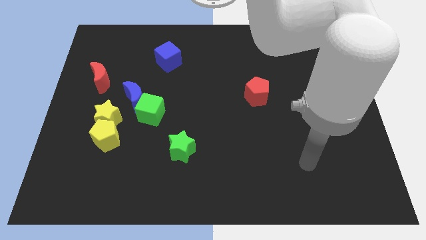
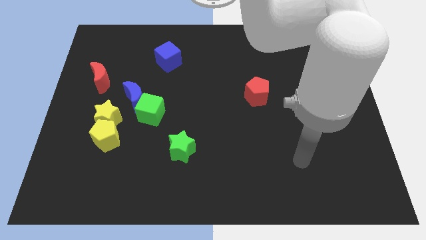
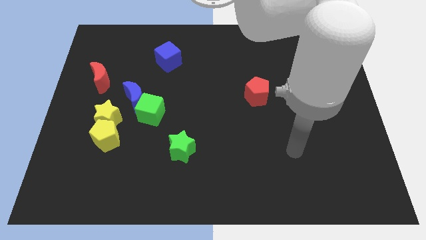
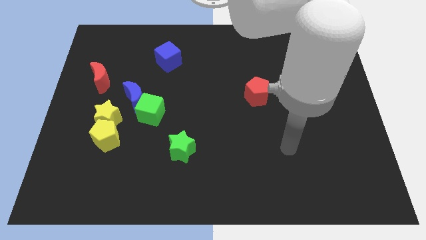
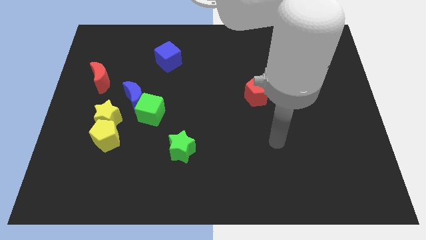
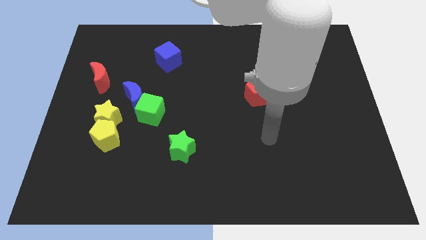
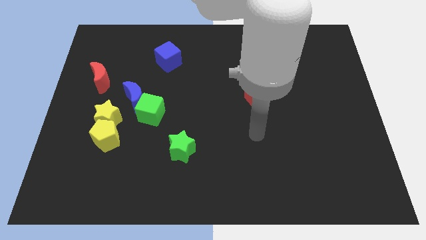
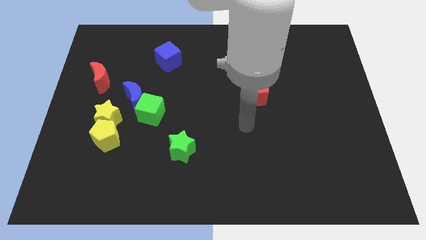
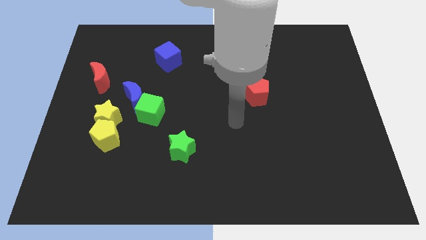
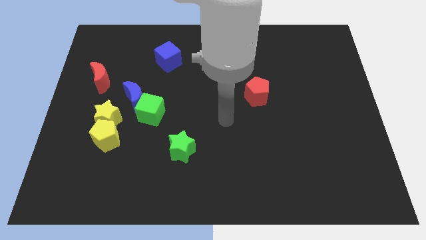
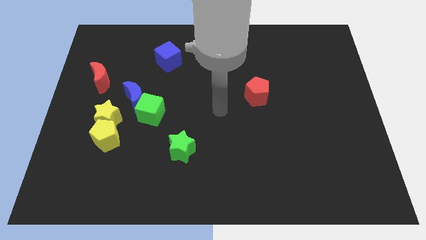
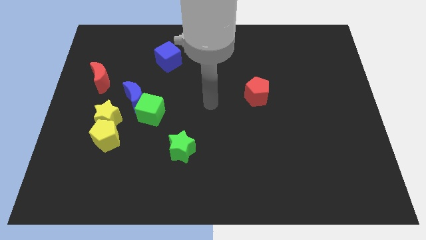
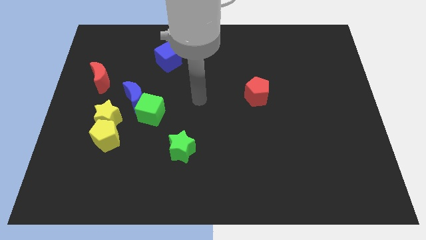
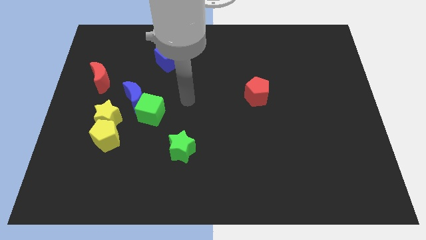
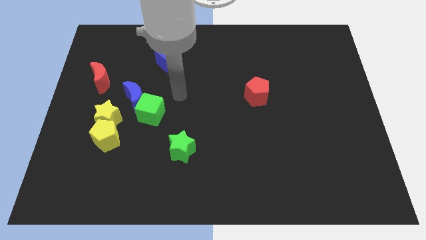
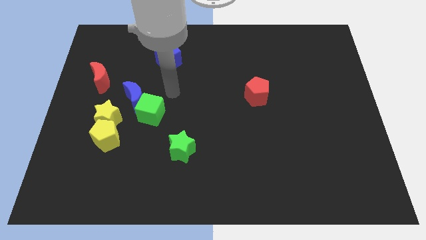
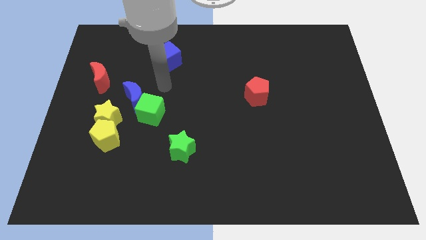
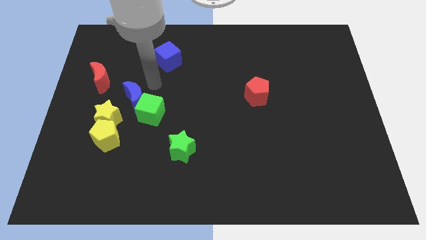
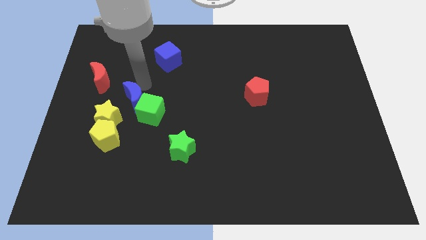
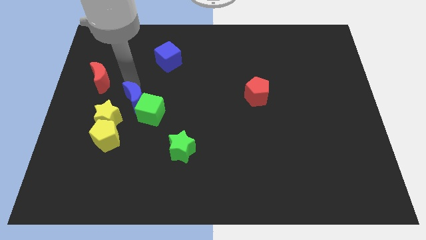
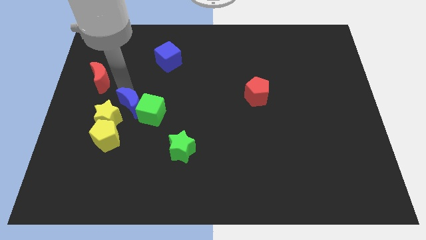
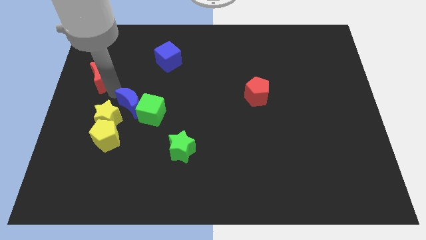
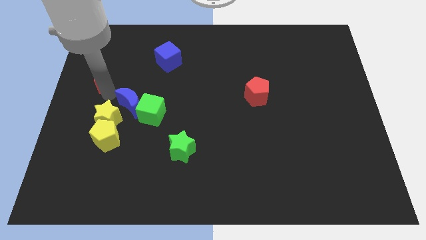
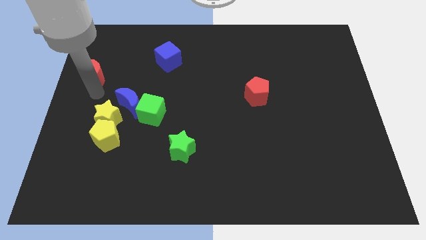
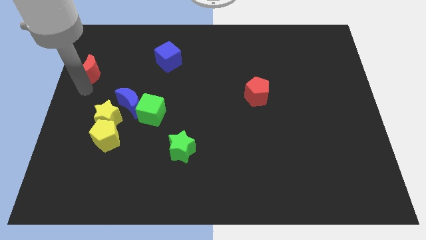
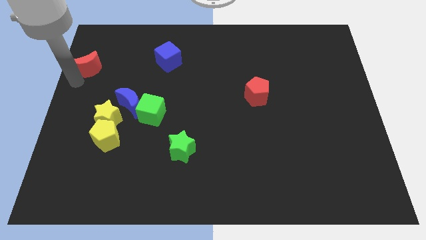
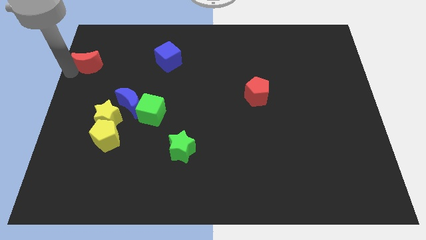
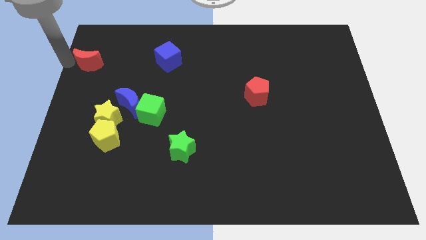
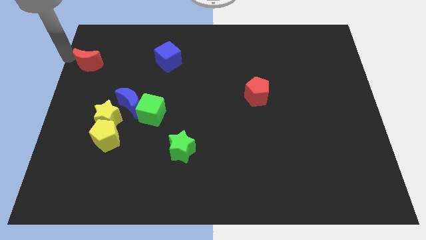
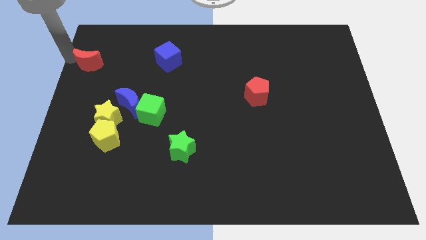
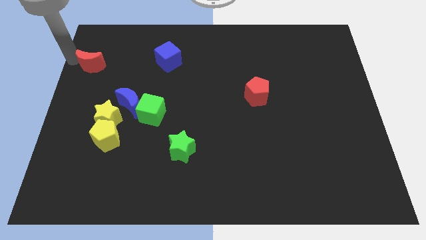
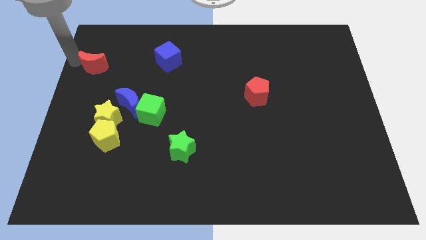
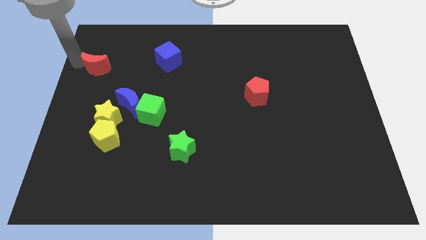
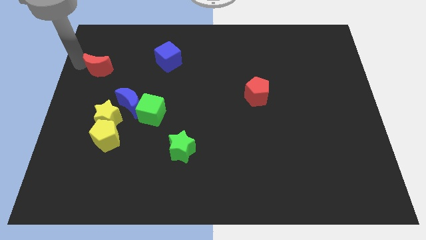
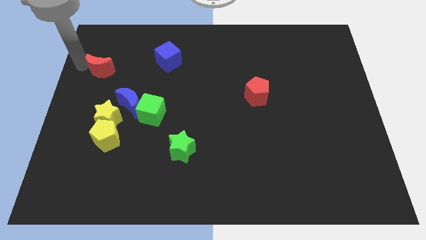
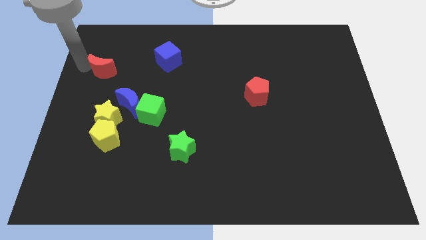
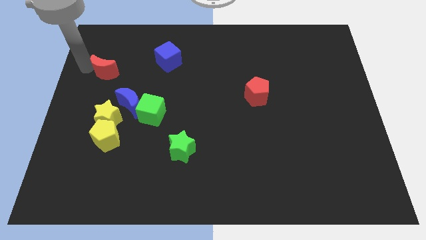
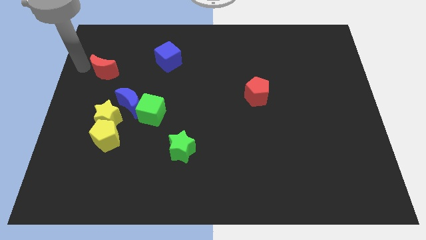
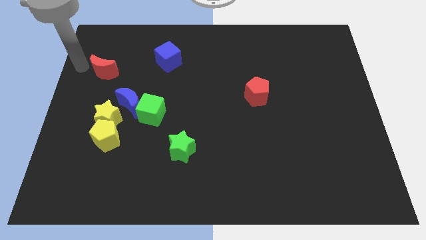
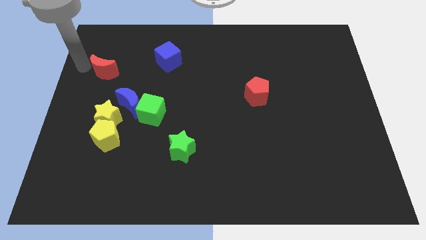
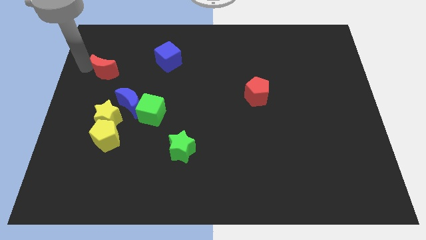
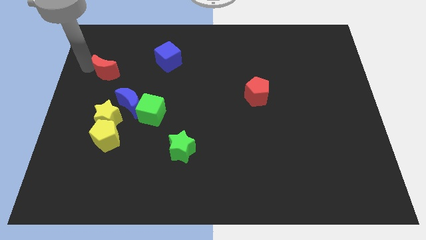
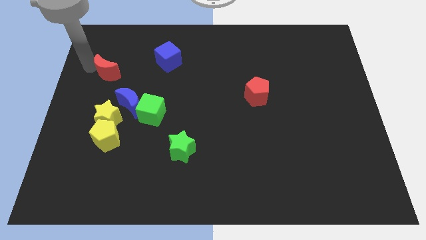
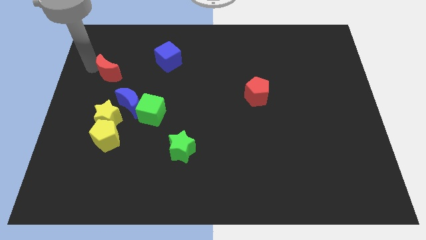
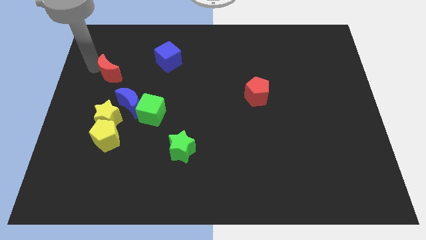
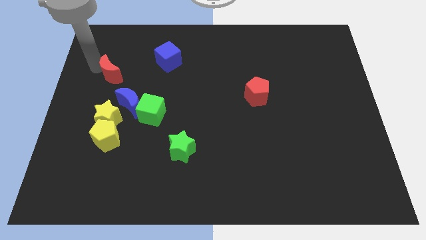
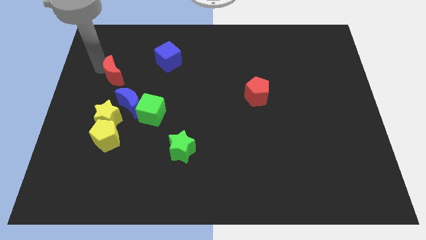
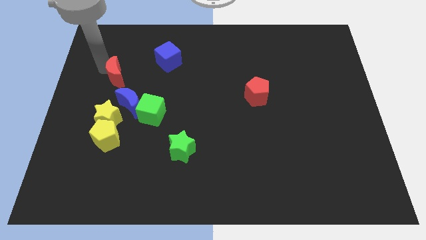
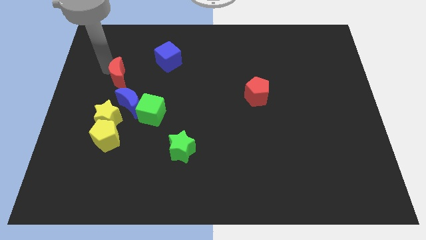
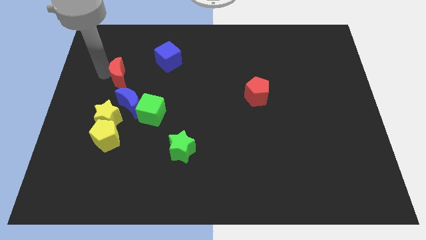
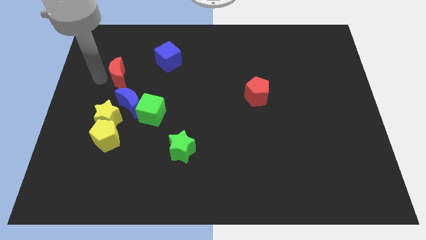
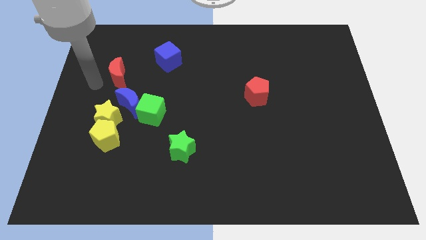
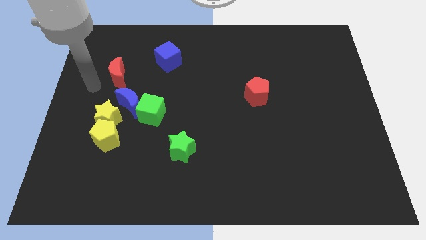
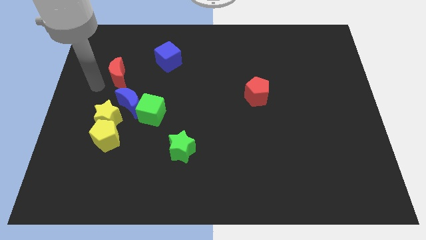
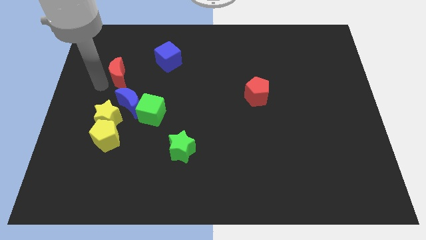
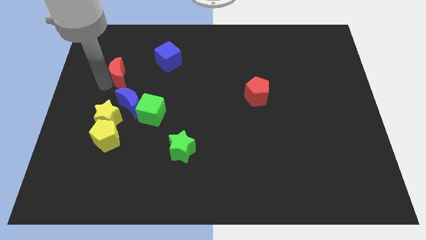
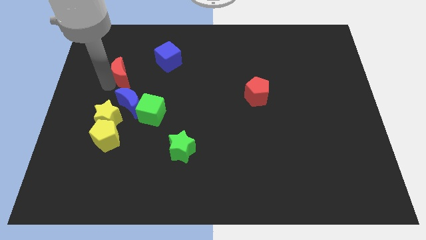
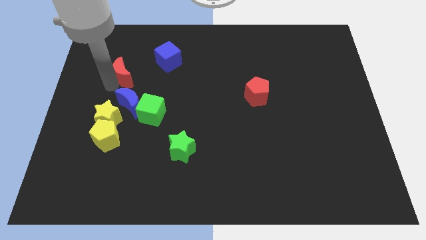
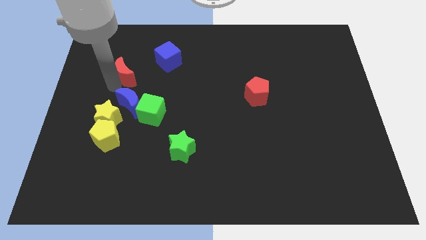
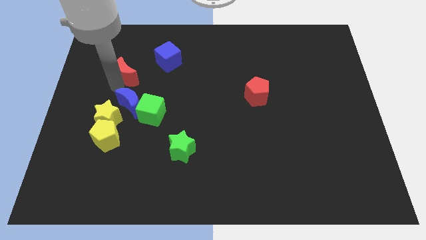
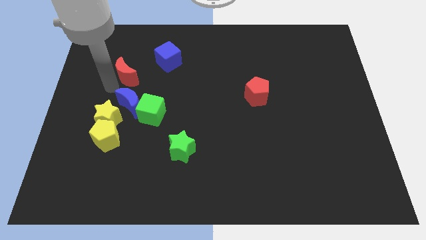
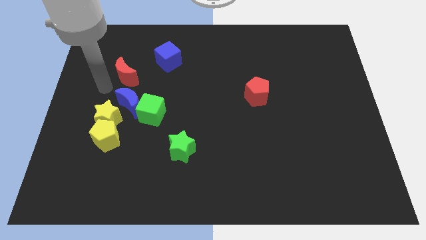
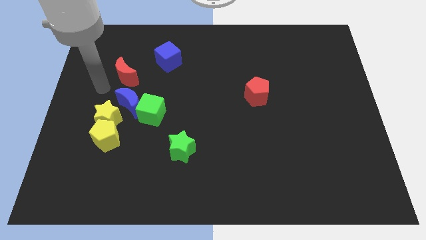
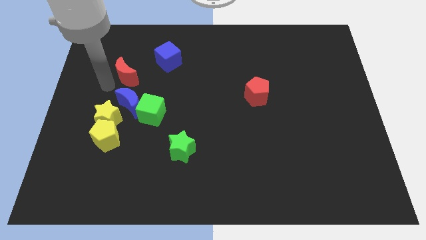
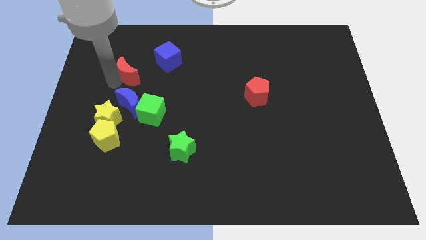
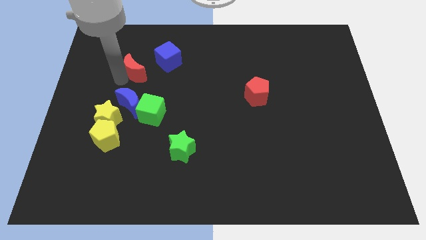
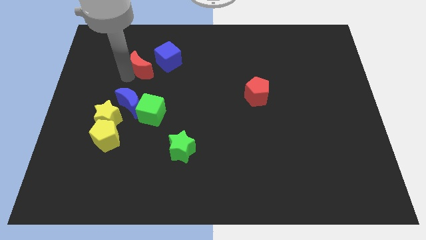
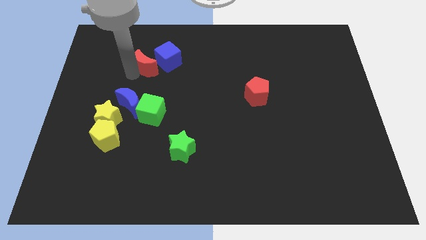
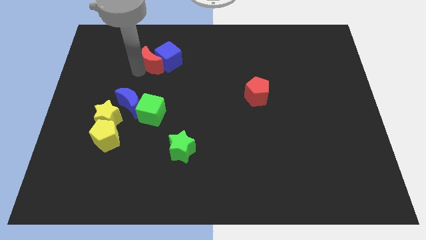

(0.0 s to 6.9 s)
slide the red moon towards the blue cube
